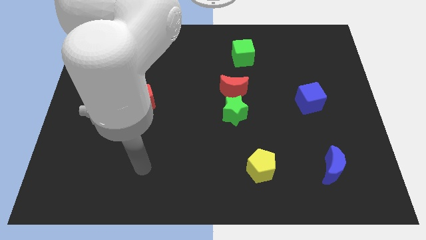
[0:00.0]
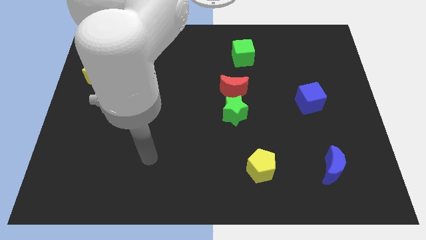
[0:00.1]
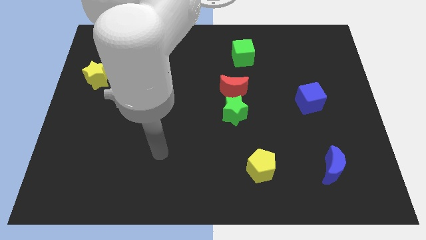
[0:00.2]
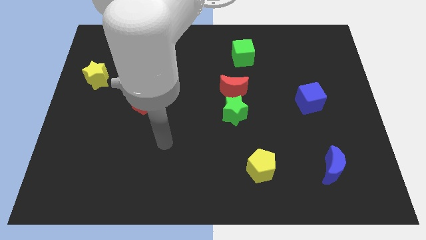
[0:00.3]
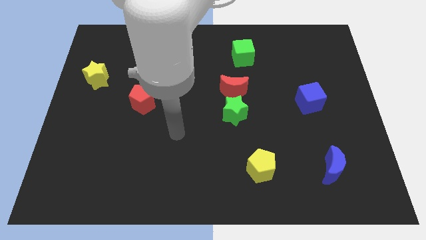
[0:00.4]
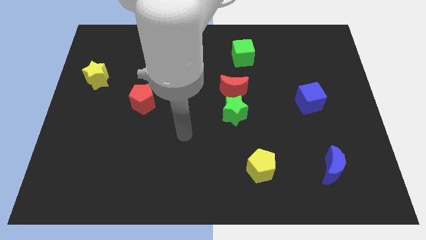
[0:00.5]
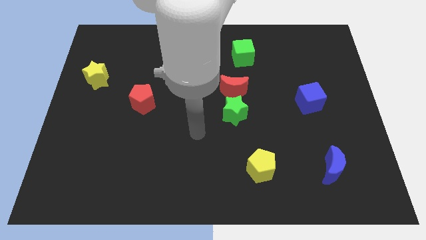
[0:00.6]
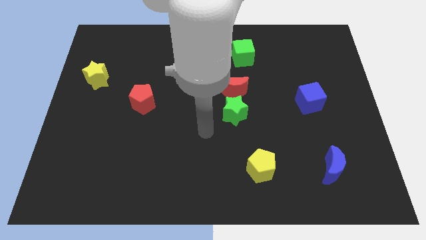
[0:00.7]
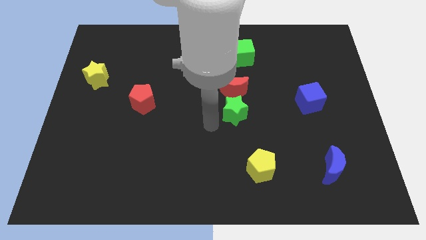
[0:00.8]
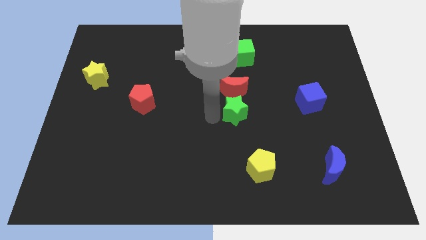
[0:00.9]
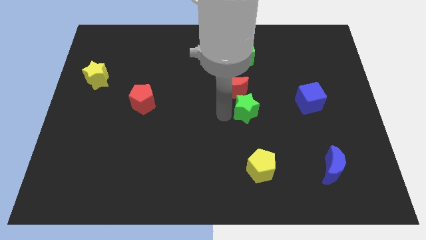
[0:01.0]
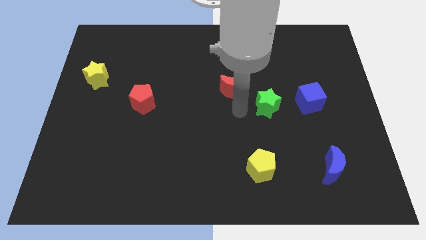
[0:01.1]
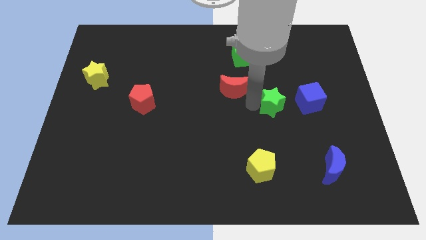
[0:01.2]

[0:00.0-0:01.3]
move the red moon away from the green star

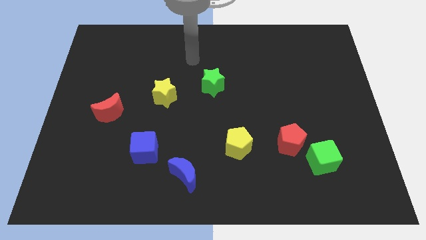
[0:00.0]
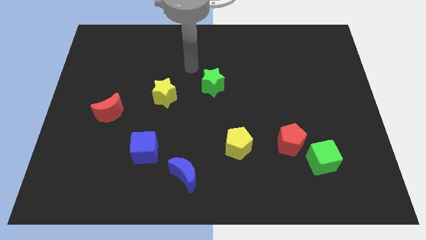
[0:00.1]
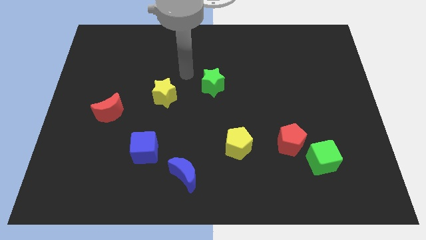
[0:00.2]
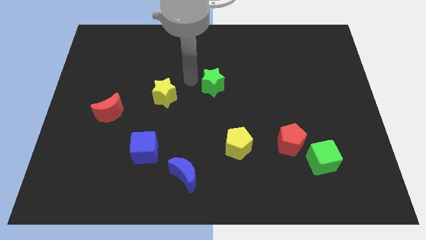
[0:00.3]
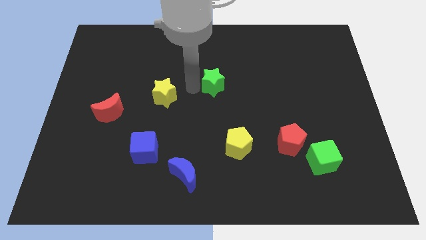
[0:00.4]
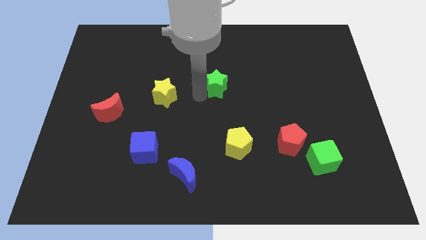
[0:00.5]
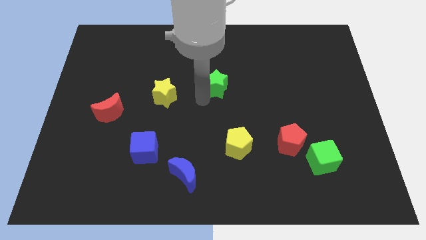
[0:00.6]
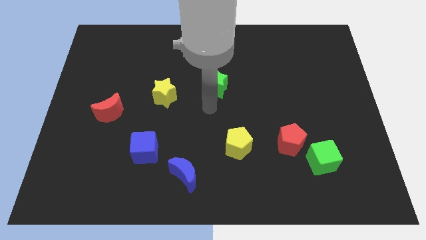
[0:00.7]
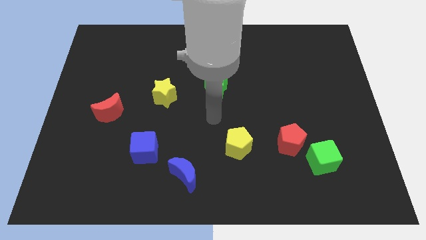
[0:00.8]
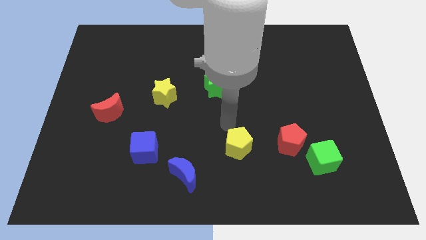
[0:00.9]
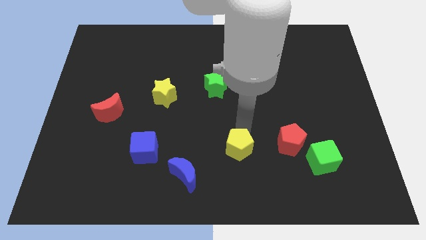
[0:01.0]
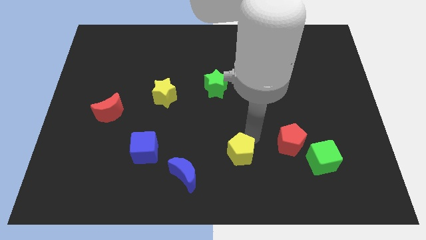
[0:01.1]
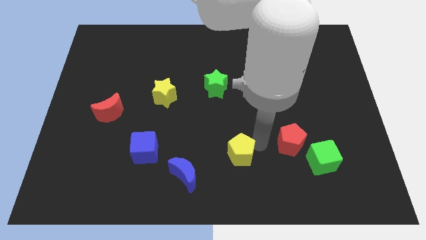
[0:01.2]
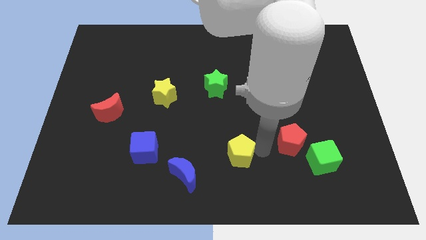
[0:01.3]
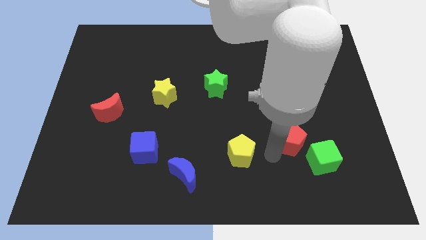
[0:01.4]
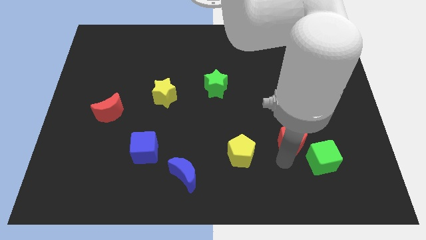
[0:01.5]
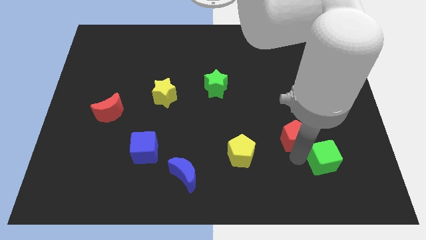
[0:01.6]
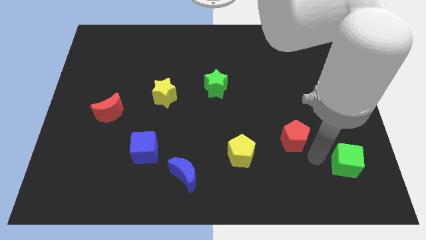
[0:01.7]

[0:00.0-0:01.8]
move the red pentagon away from the green cube

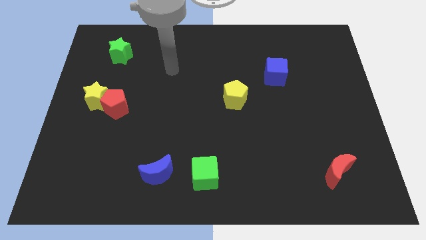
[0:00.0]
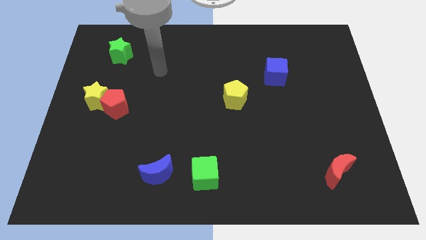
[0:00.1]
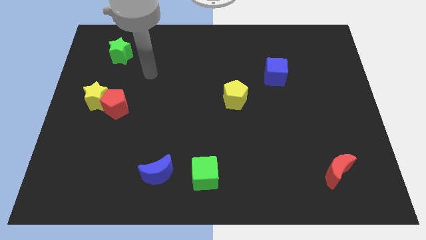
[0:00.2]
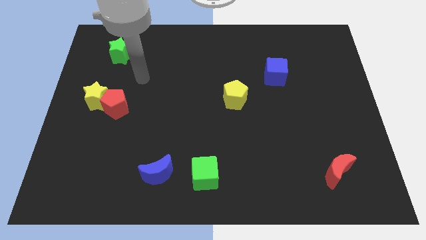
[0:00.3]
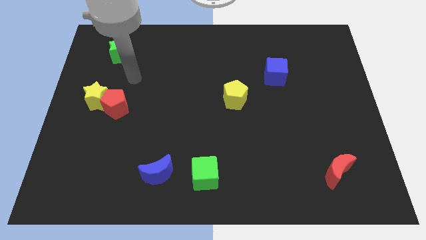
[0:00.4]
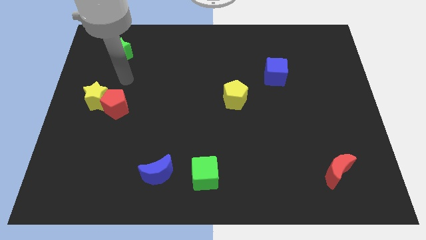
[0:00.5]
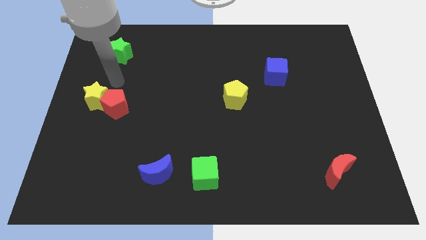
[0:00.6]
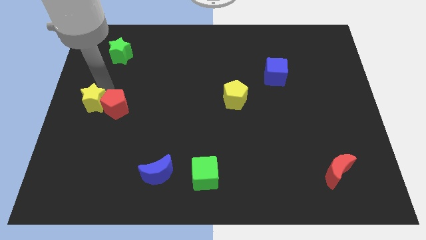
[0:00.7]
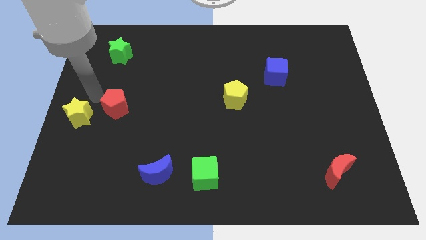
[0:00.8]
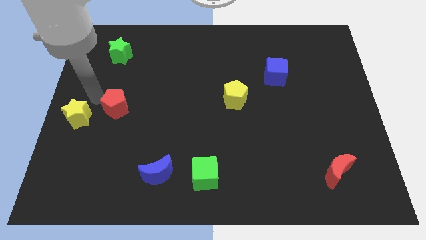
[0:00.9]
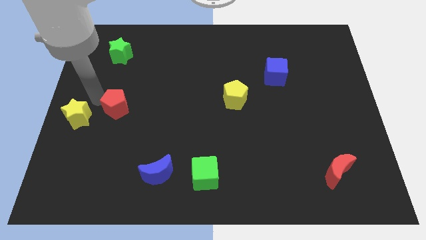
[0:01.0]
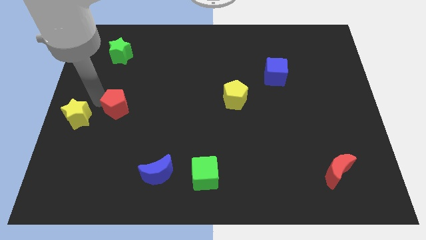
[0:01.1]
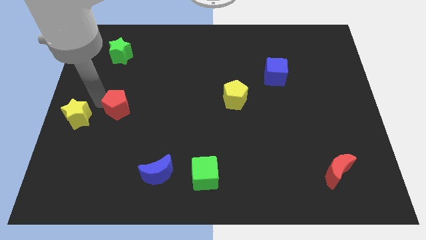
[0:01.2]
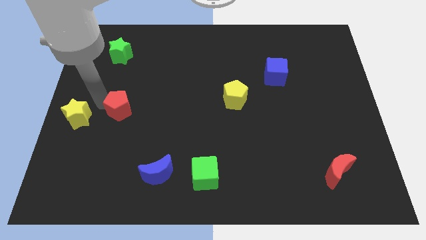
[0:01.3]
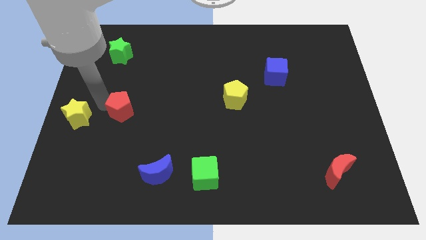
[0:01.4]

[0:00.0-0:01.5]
move the red pentagon away from the yellow star

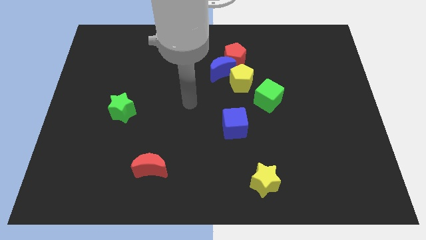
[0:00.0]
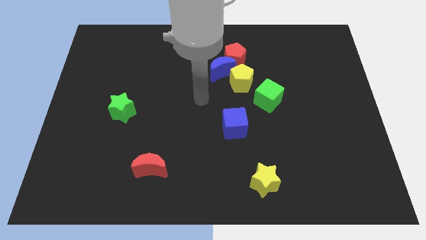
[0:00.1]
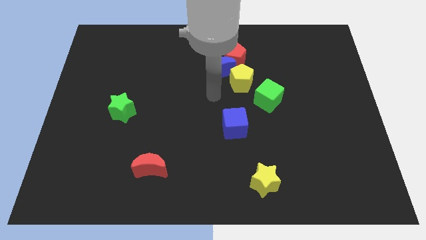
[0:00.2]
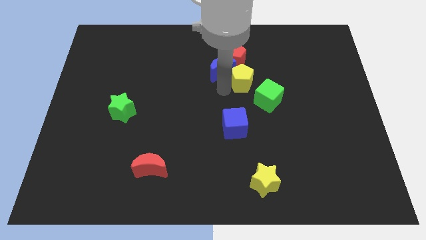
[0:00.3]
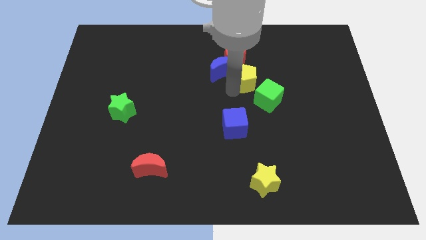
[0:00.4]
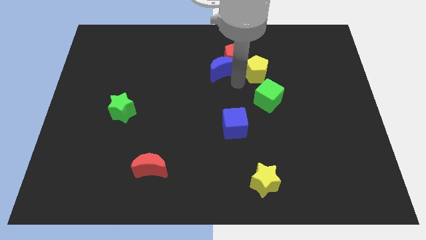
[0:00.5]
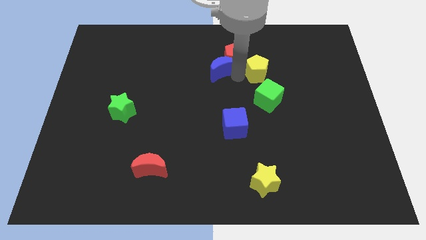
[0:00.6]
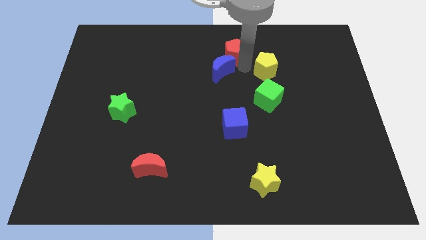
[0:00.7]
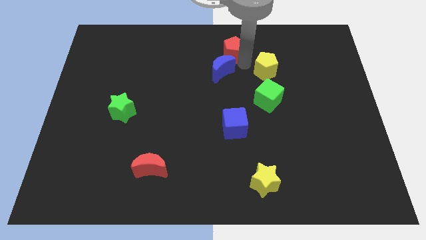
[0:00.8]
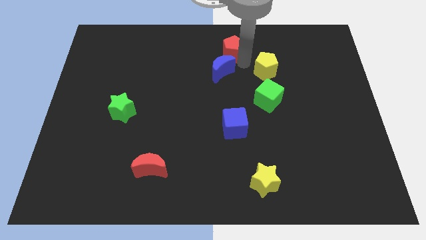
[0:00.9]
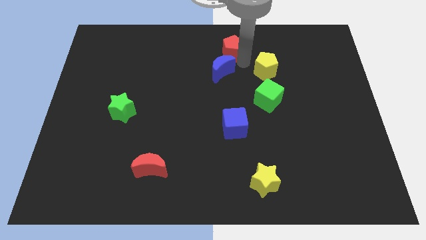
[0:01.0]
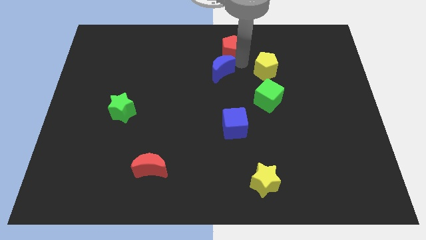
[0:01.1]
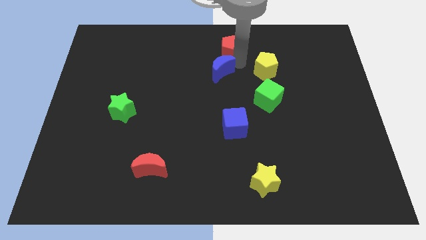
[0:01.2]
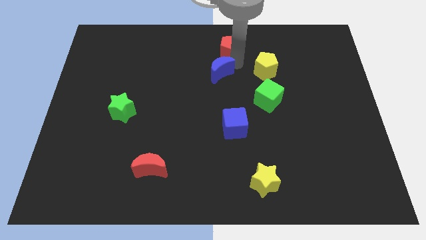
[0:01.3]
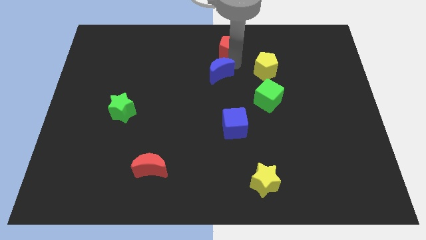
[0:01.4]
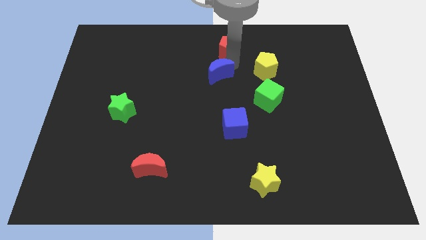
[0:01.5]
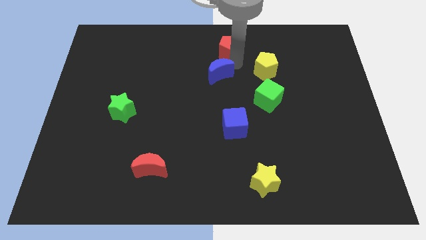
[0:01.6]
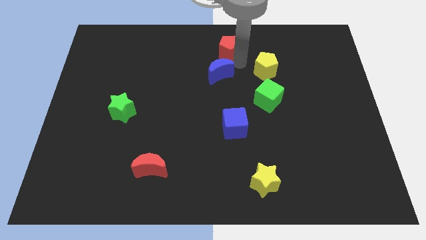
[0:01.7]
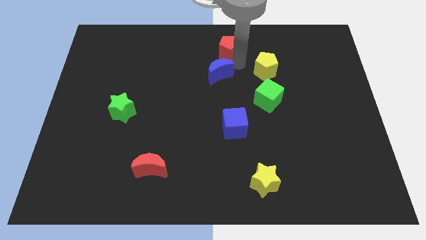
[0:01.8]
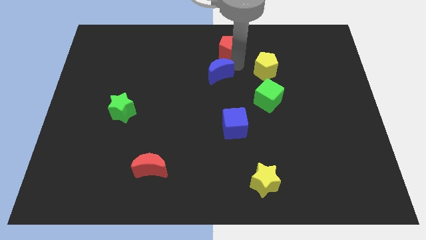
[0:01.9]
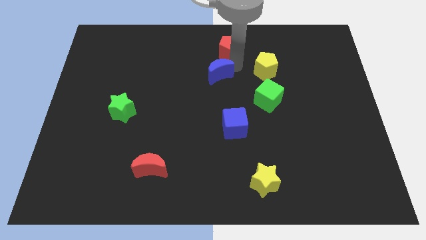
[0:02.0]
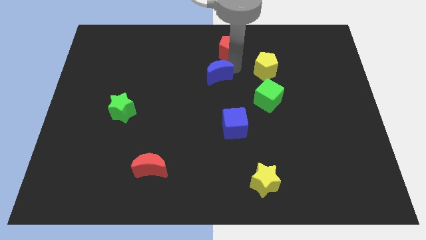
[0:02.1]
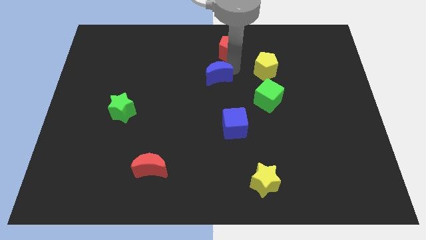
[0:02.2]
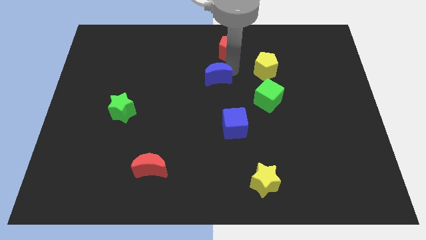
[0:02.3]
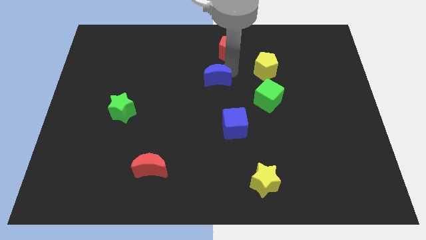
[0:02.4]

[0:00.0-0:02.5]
pull the blue moon apart from the red pentagon and yellow pentagon

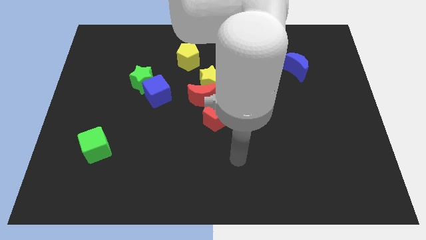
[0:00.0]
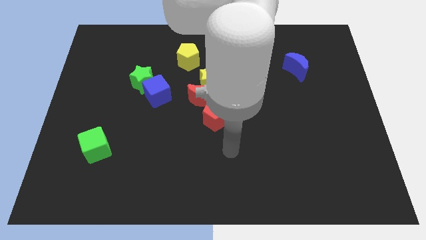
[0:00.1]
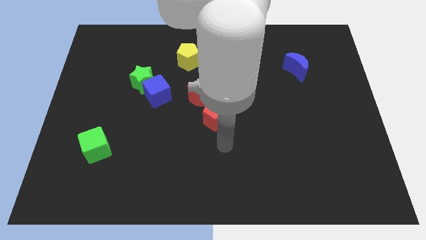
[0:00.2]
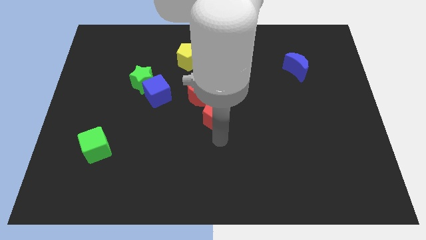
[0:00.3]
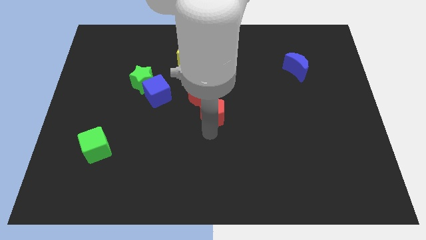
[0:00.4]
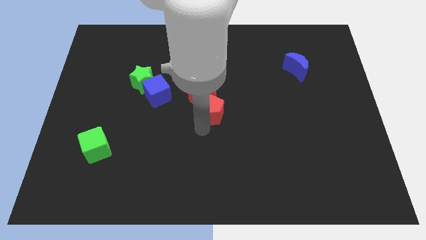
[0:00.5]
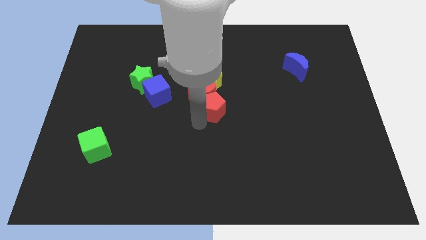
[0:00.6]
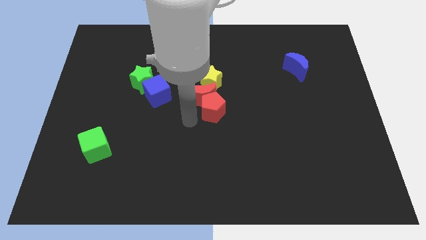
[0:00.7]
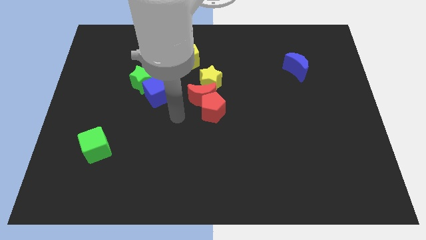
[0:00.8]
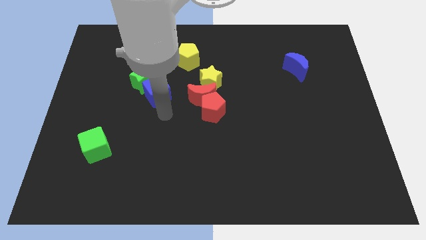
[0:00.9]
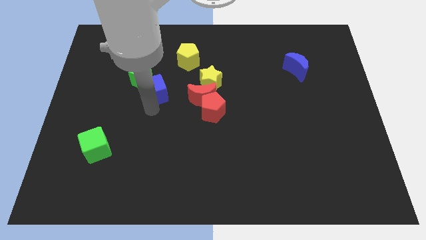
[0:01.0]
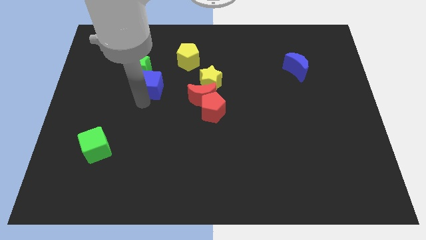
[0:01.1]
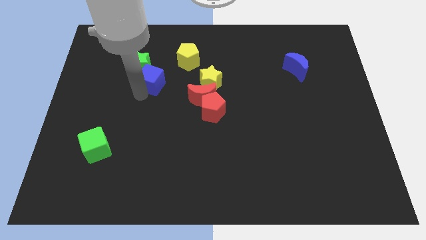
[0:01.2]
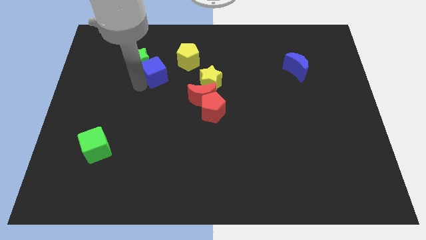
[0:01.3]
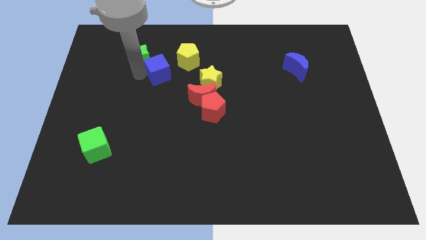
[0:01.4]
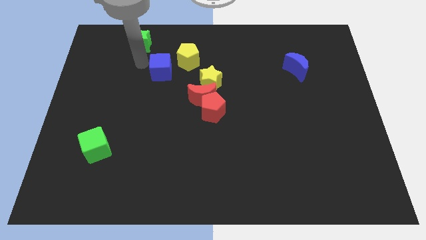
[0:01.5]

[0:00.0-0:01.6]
pull the blue cube apart from the green star

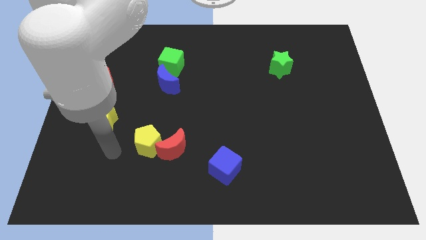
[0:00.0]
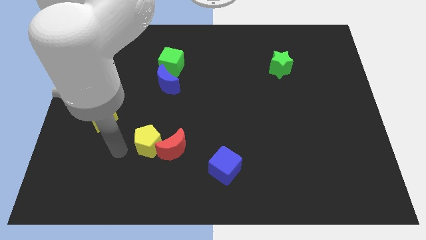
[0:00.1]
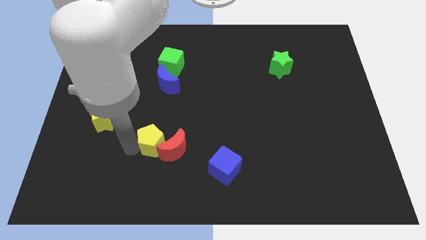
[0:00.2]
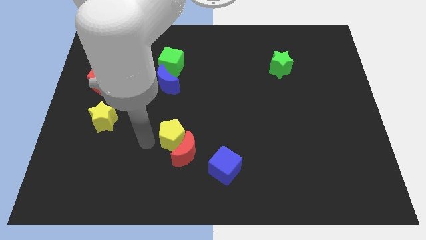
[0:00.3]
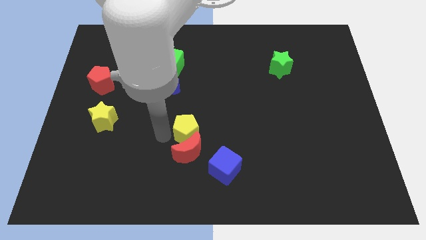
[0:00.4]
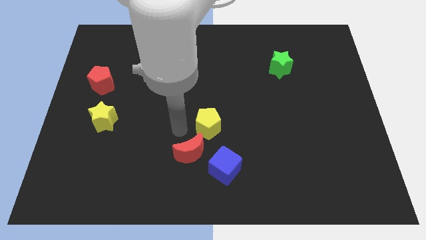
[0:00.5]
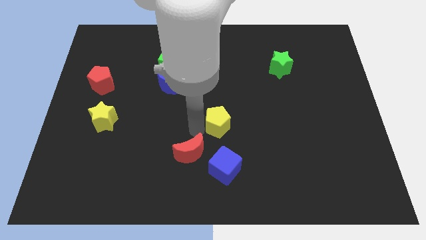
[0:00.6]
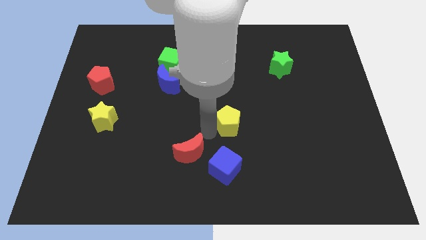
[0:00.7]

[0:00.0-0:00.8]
pull the red moon apart from the yellow pentagon
